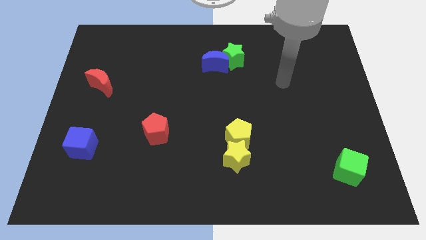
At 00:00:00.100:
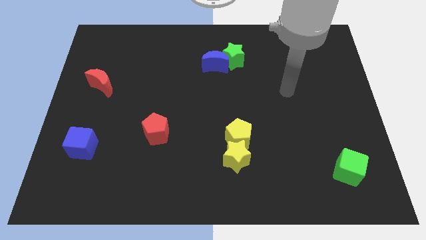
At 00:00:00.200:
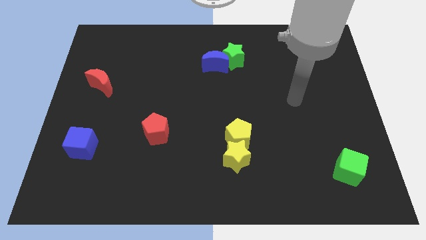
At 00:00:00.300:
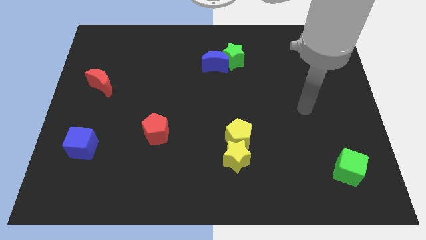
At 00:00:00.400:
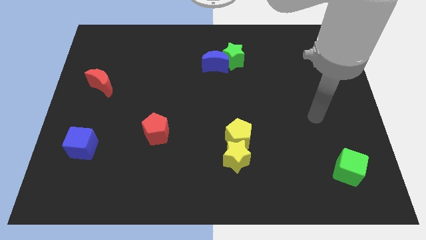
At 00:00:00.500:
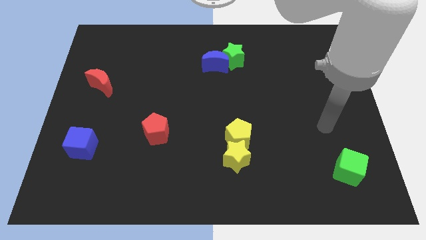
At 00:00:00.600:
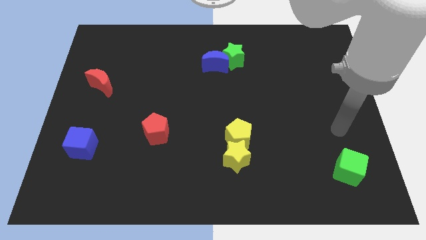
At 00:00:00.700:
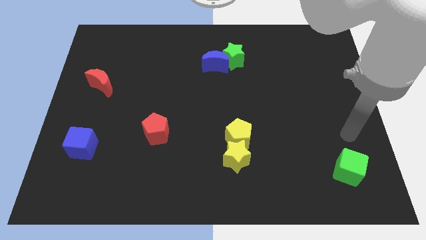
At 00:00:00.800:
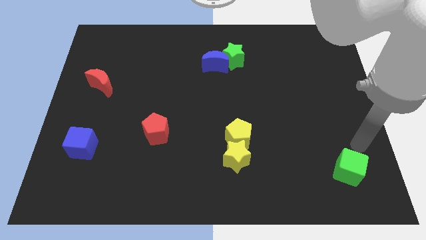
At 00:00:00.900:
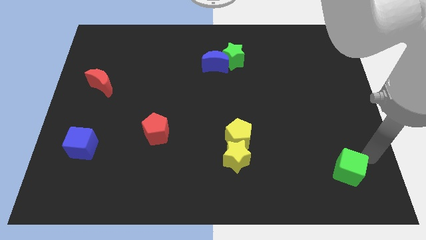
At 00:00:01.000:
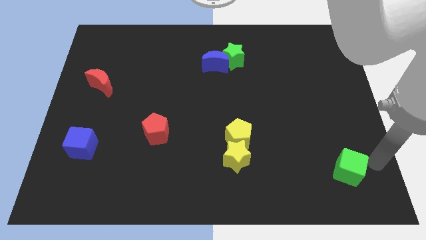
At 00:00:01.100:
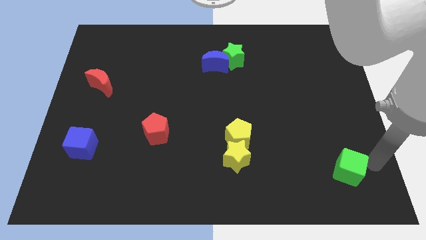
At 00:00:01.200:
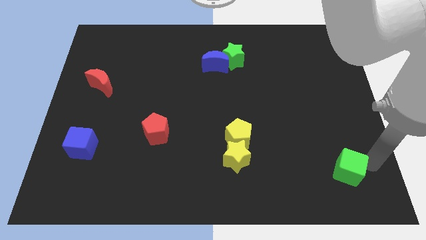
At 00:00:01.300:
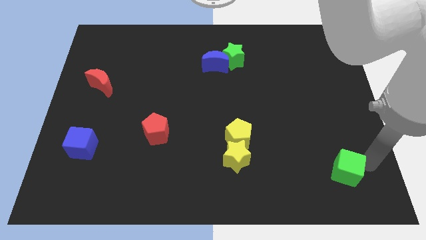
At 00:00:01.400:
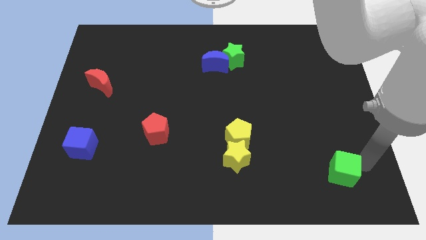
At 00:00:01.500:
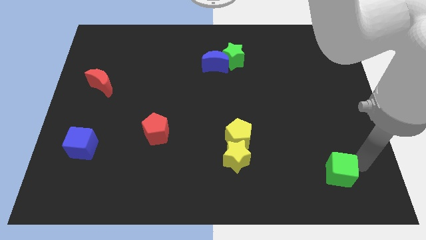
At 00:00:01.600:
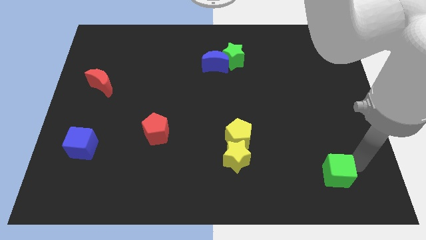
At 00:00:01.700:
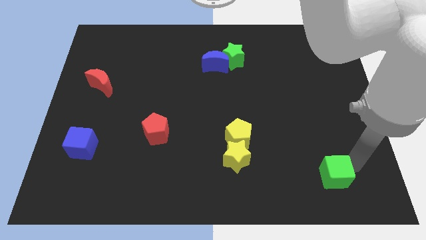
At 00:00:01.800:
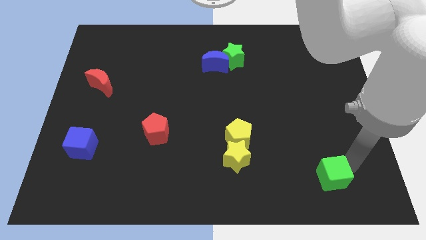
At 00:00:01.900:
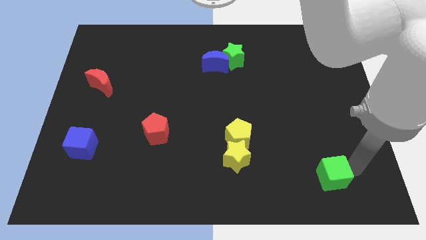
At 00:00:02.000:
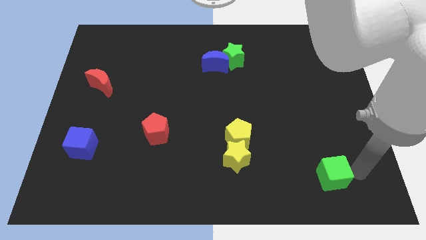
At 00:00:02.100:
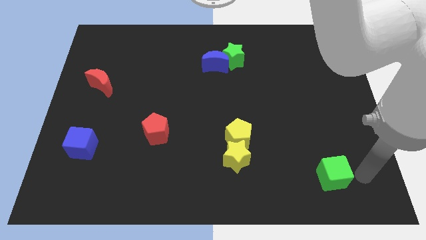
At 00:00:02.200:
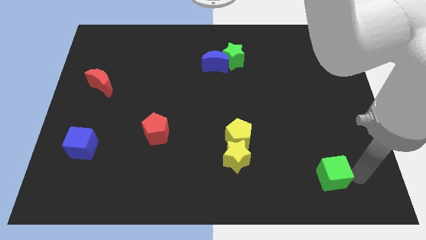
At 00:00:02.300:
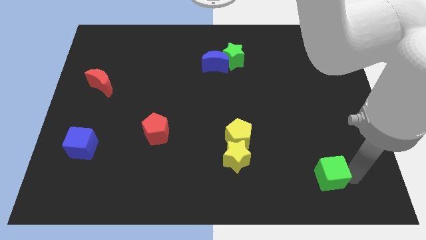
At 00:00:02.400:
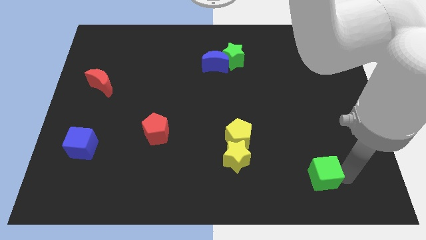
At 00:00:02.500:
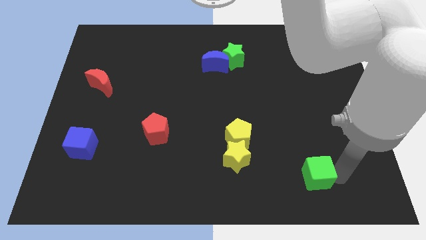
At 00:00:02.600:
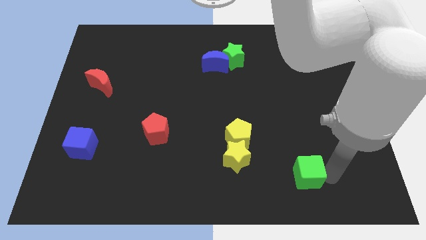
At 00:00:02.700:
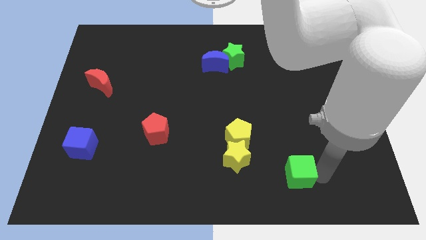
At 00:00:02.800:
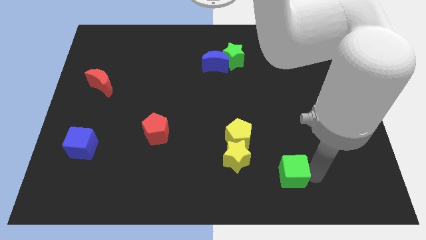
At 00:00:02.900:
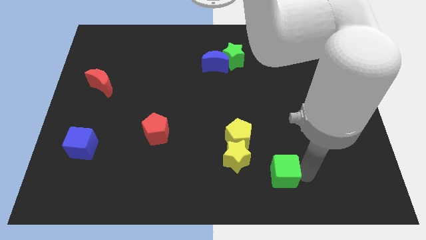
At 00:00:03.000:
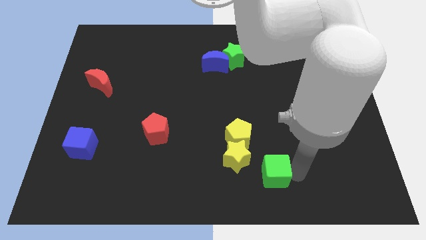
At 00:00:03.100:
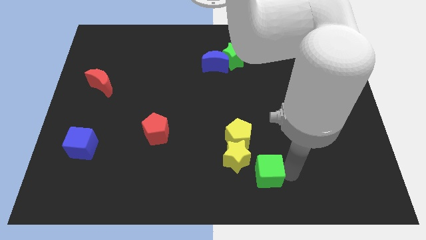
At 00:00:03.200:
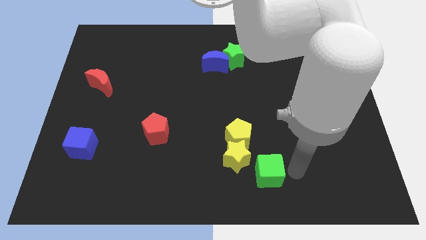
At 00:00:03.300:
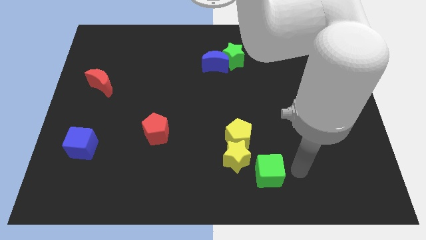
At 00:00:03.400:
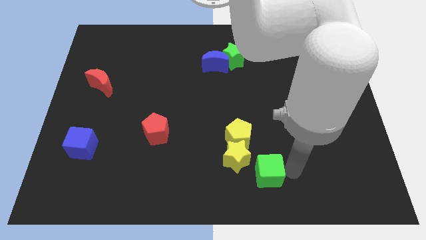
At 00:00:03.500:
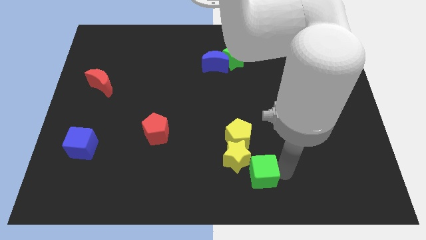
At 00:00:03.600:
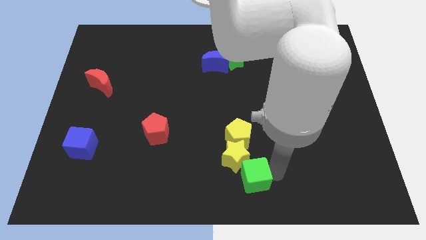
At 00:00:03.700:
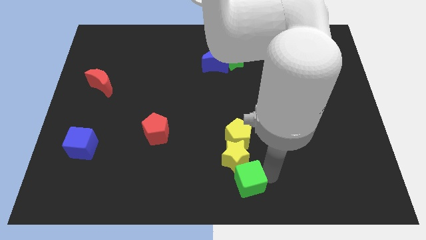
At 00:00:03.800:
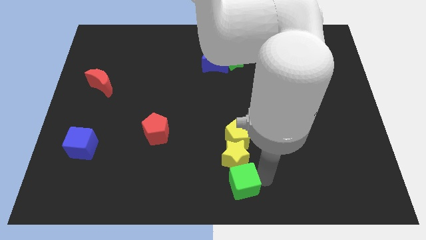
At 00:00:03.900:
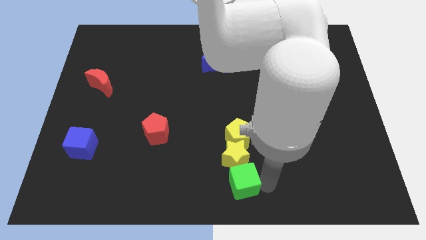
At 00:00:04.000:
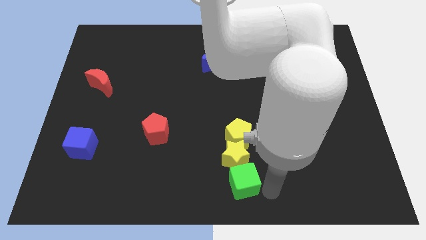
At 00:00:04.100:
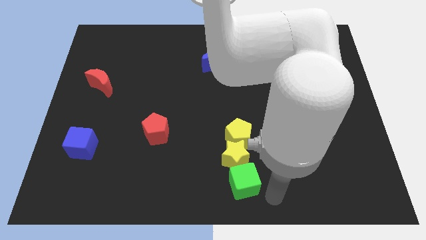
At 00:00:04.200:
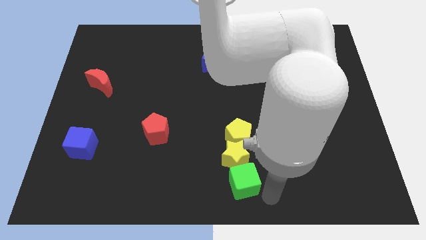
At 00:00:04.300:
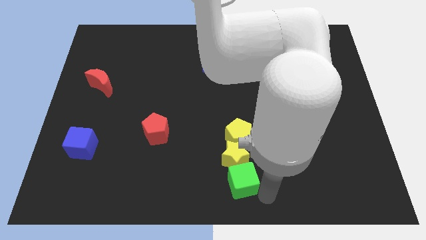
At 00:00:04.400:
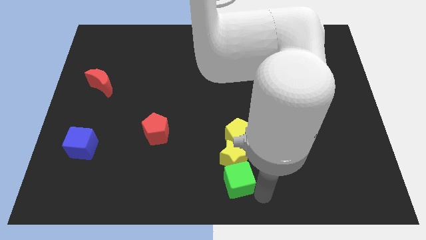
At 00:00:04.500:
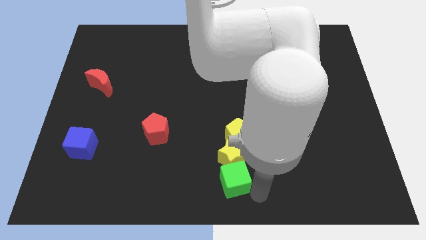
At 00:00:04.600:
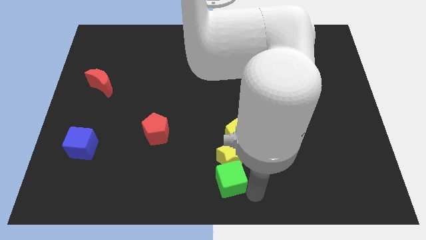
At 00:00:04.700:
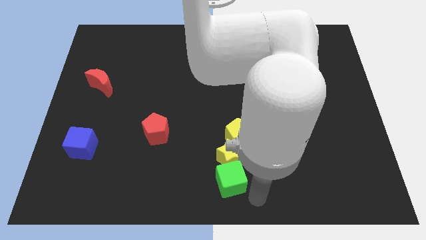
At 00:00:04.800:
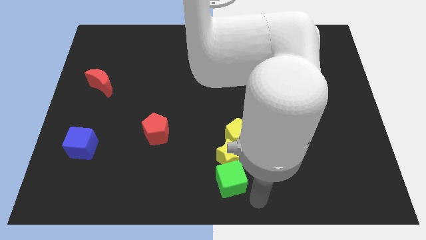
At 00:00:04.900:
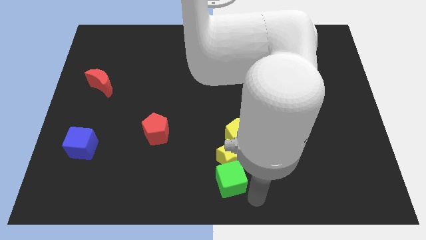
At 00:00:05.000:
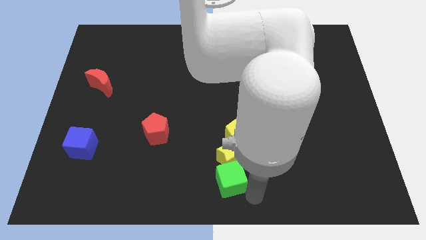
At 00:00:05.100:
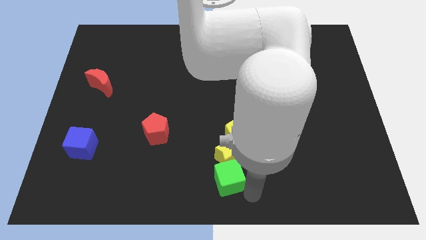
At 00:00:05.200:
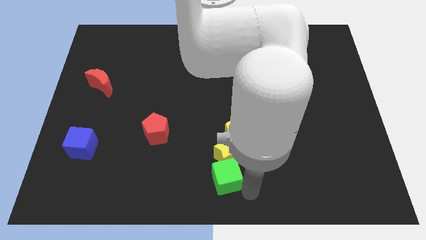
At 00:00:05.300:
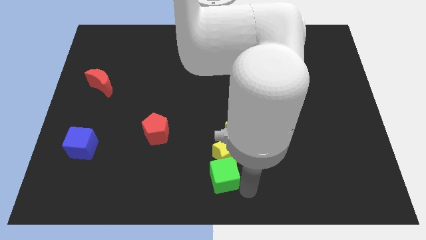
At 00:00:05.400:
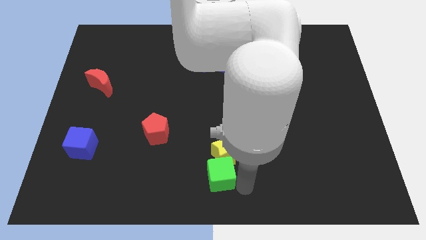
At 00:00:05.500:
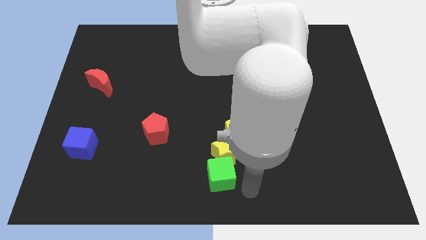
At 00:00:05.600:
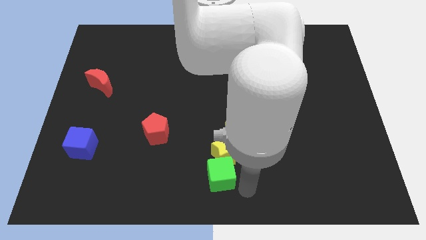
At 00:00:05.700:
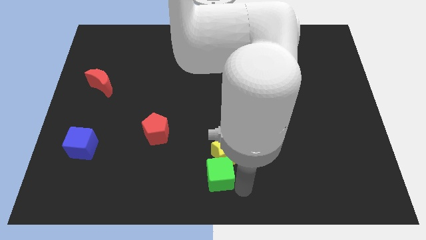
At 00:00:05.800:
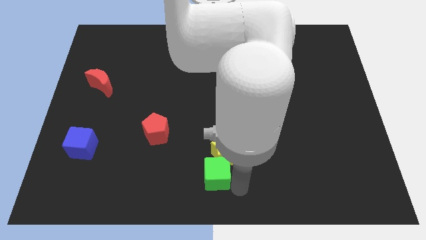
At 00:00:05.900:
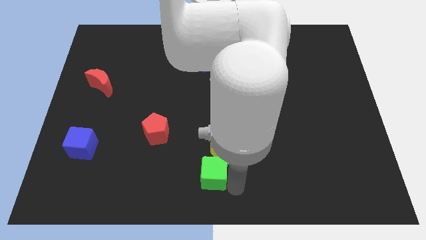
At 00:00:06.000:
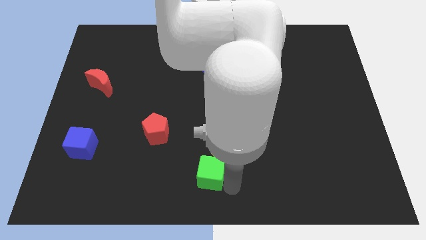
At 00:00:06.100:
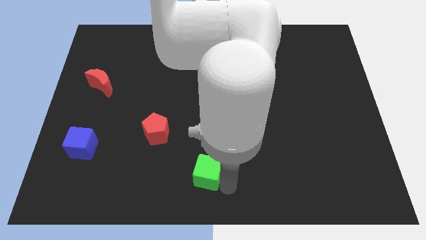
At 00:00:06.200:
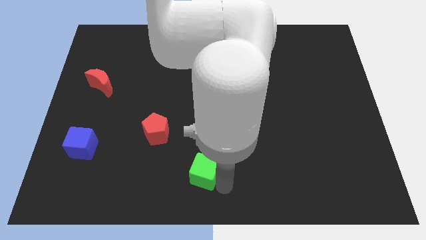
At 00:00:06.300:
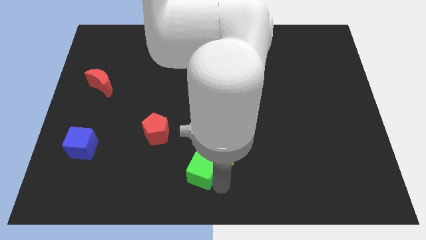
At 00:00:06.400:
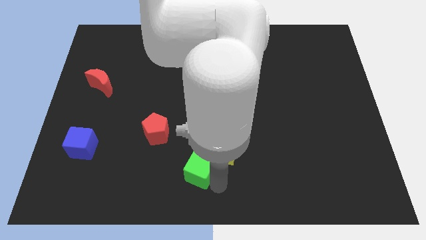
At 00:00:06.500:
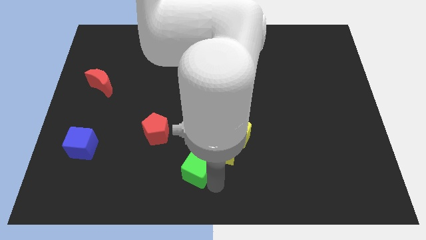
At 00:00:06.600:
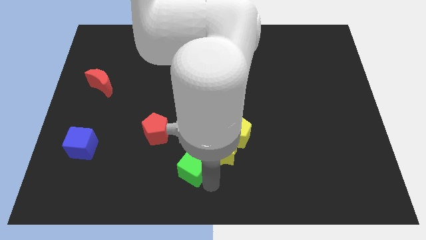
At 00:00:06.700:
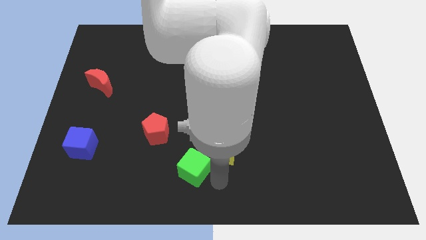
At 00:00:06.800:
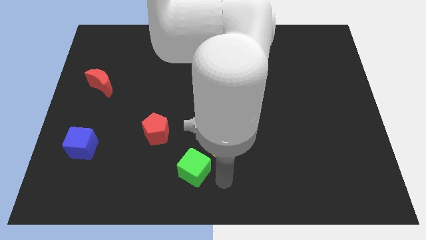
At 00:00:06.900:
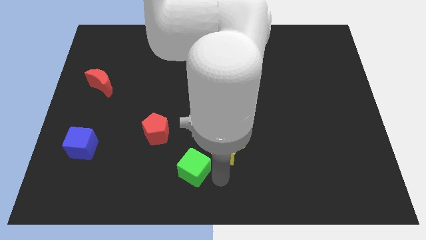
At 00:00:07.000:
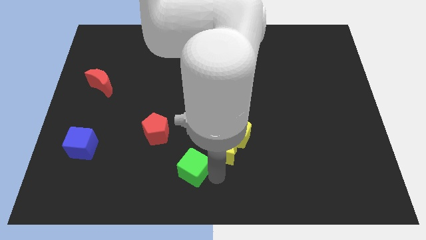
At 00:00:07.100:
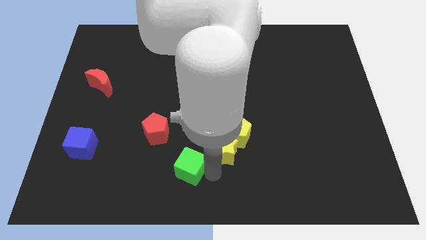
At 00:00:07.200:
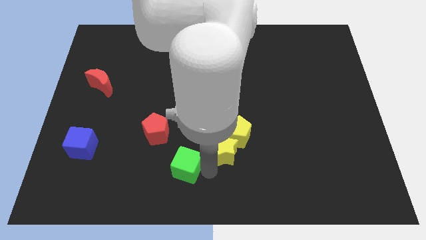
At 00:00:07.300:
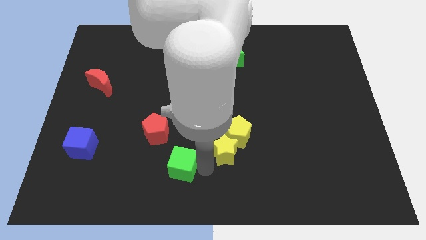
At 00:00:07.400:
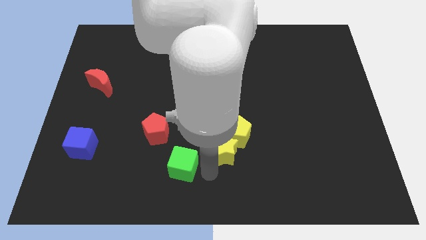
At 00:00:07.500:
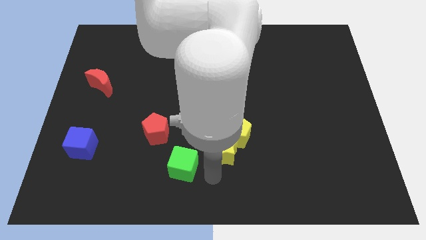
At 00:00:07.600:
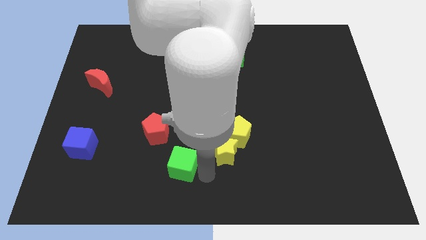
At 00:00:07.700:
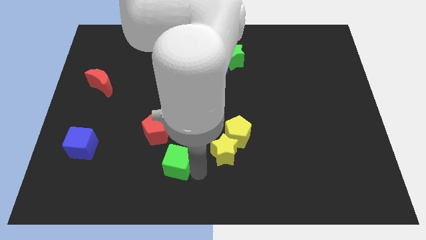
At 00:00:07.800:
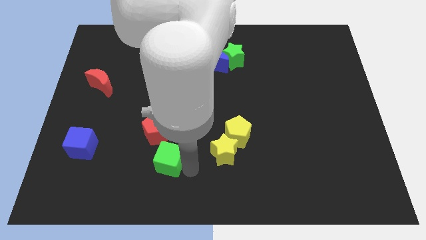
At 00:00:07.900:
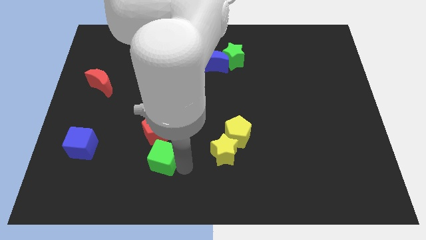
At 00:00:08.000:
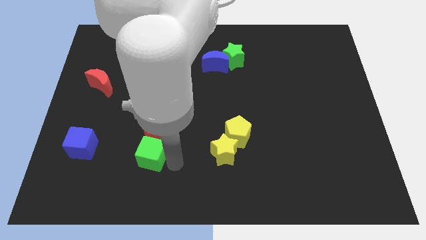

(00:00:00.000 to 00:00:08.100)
push the green cube to the bottom left of the red pentagon
